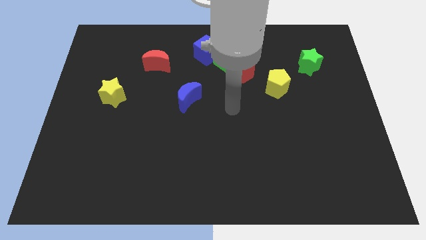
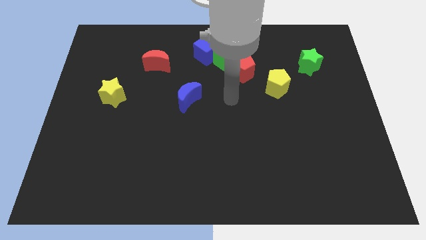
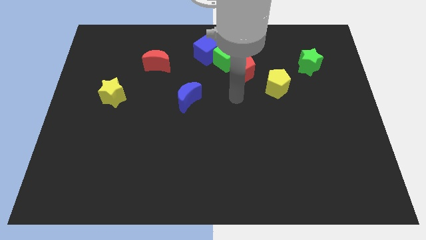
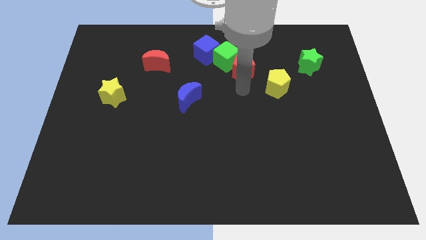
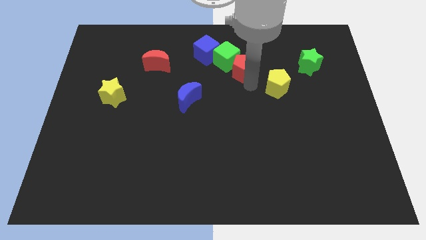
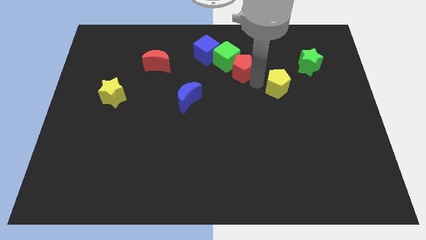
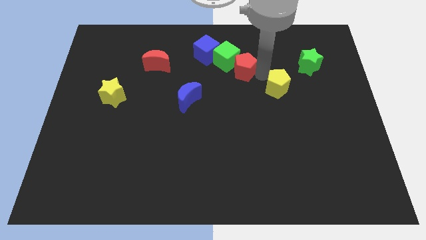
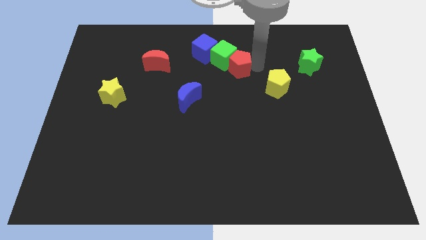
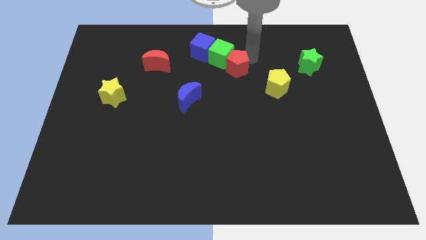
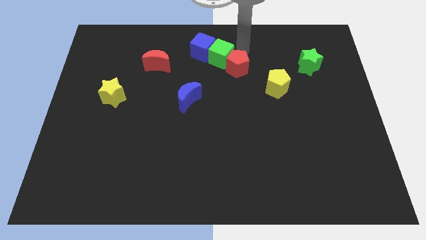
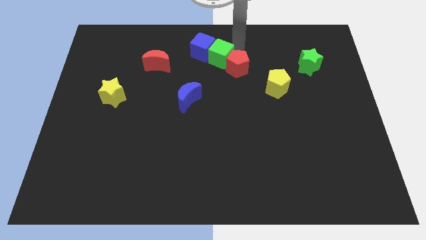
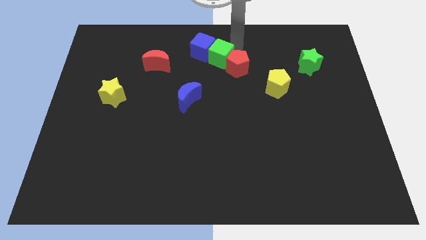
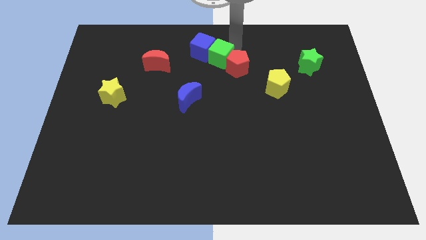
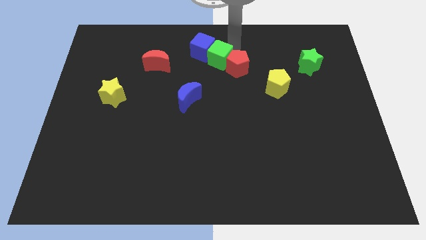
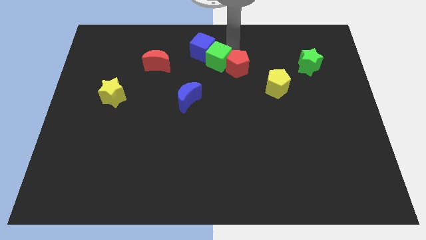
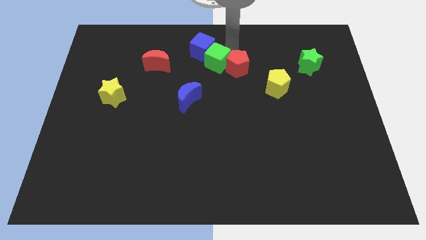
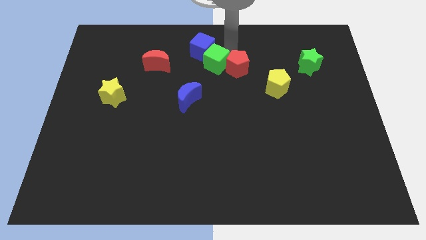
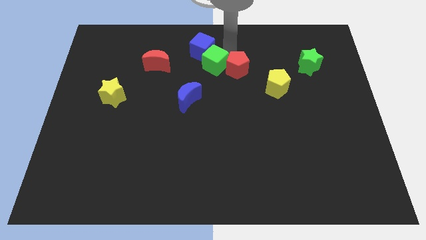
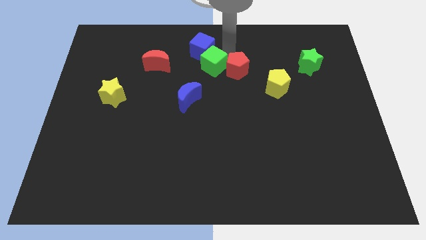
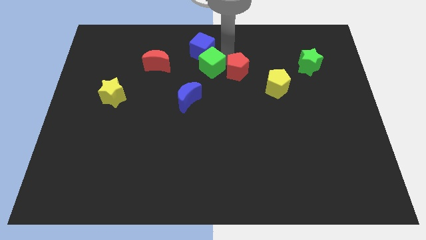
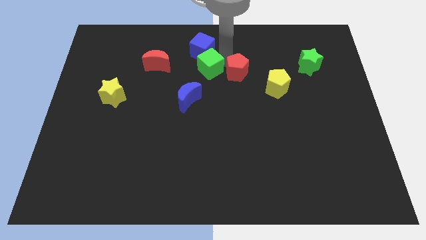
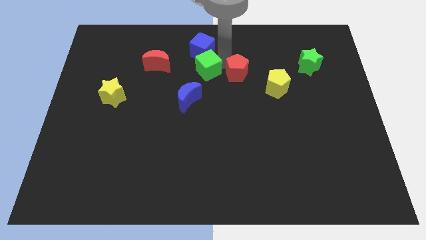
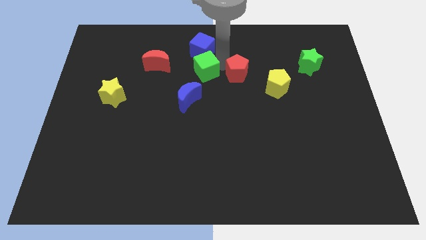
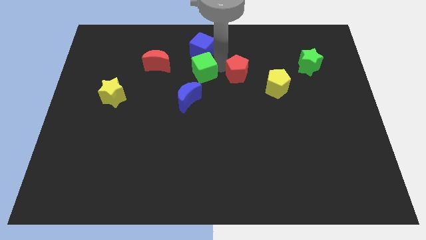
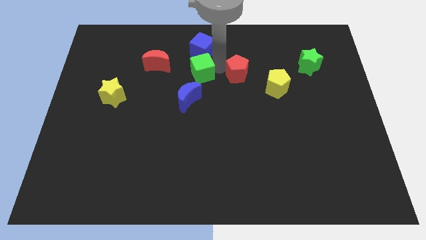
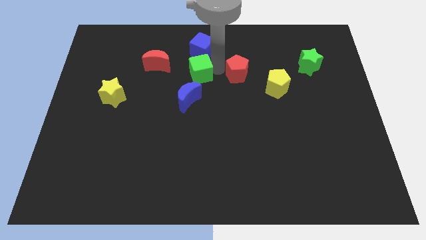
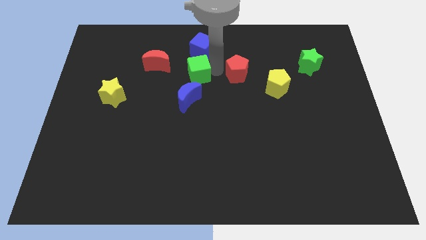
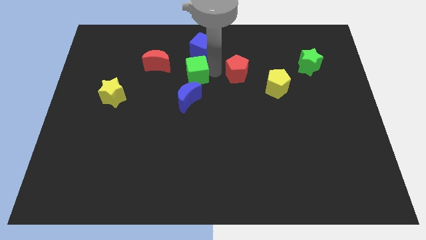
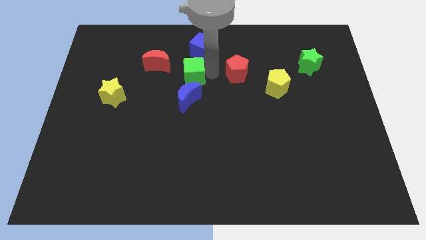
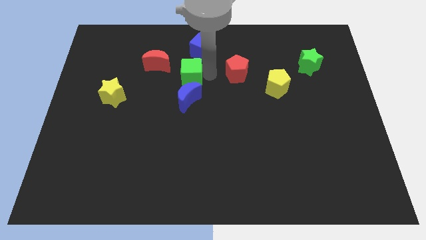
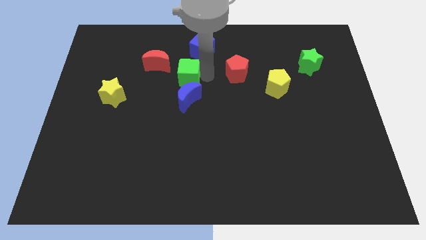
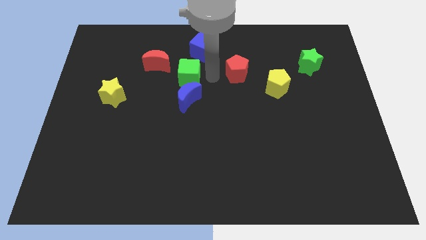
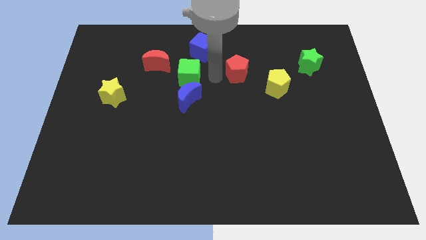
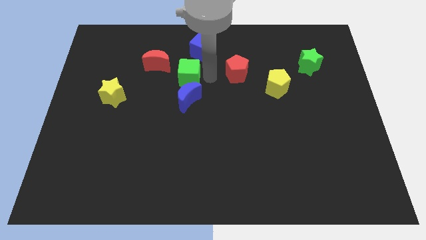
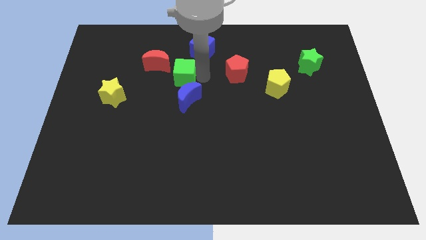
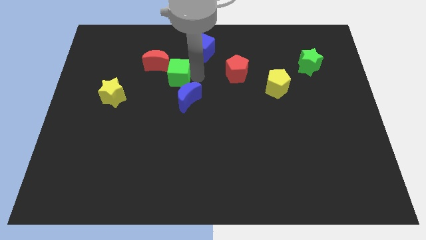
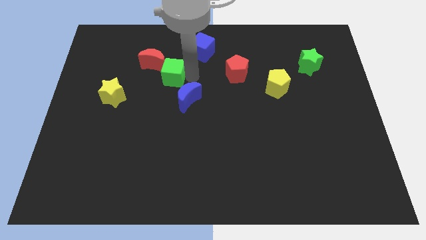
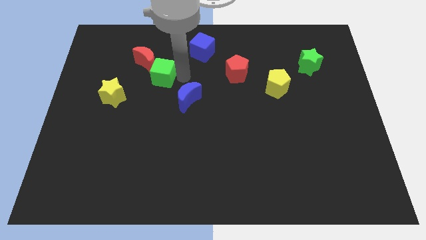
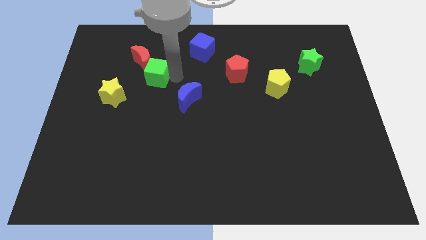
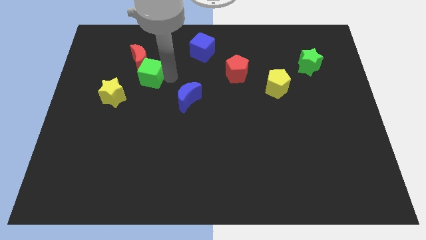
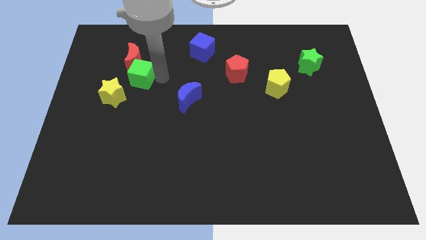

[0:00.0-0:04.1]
slide the green cube to the left

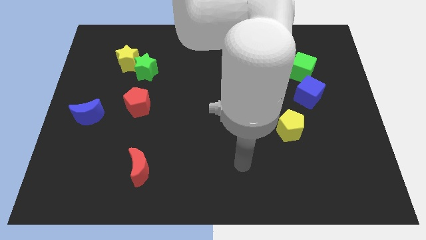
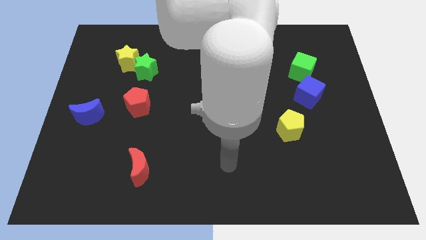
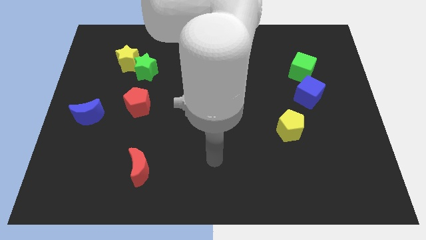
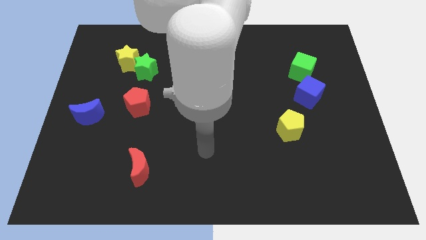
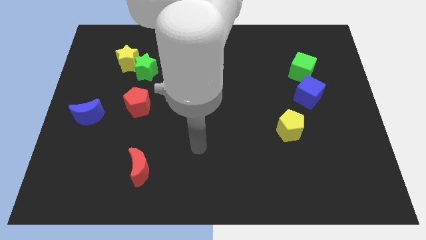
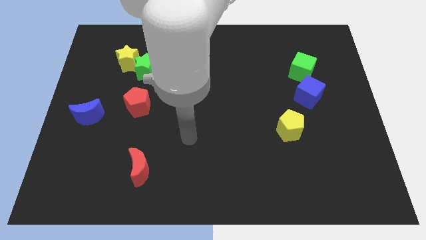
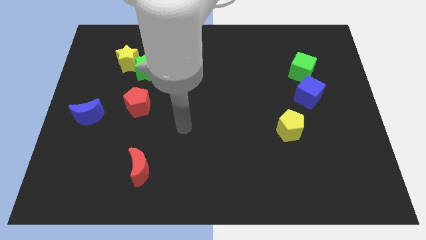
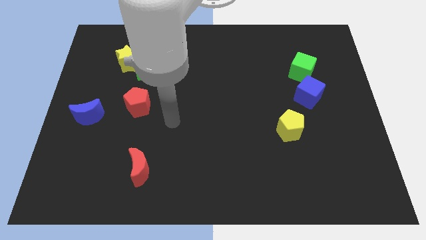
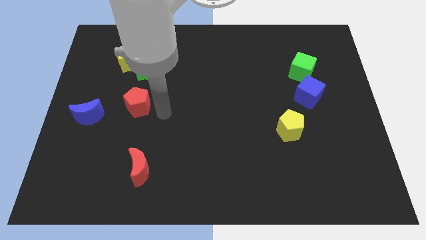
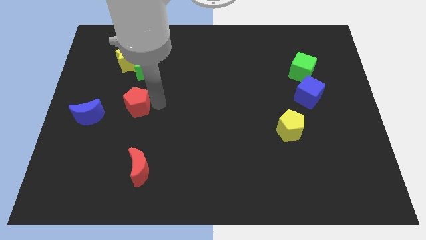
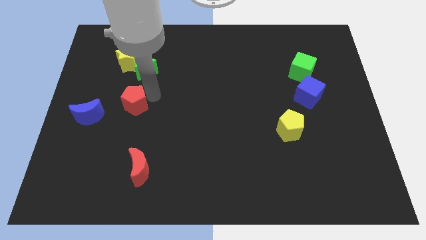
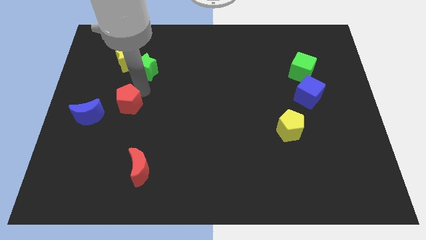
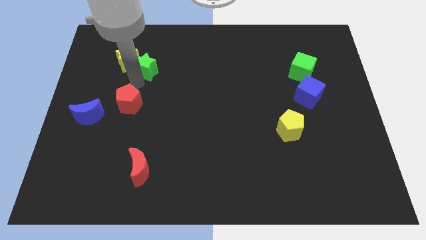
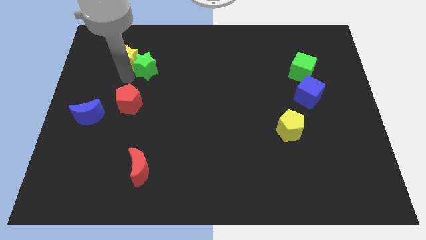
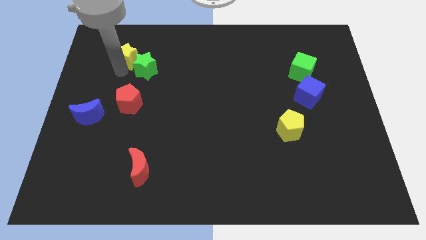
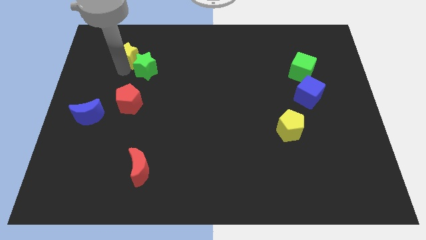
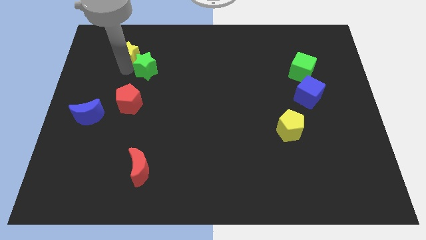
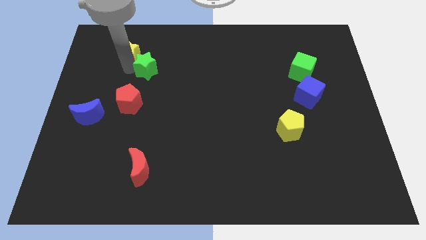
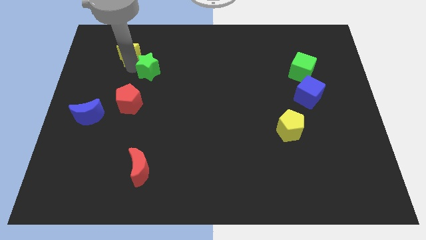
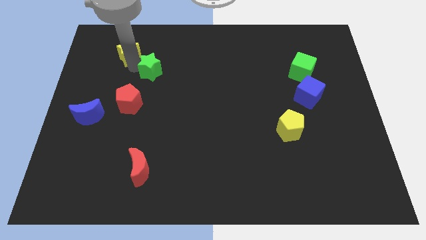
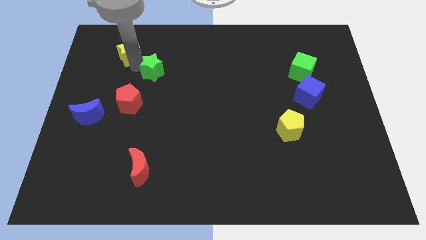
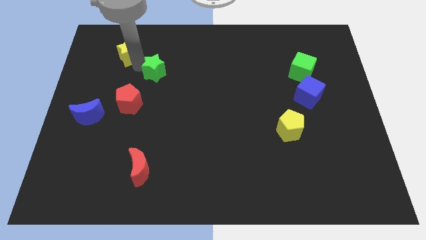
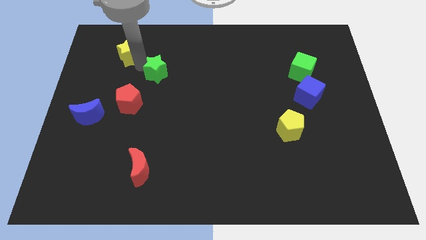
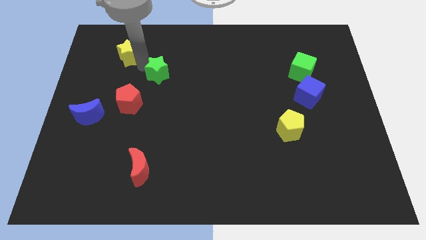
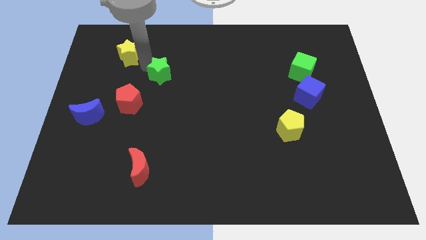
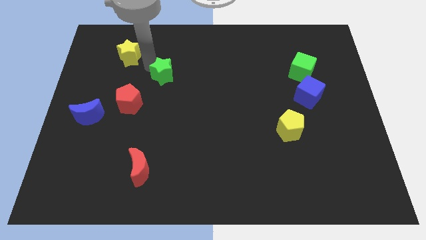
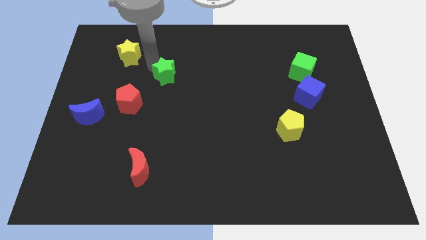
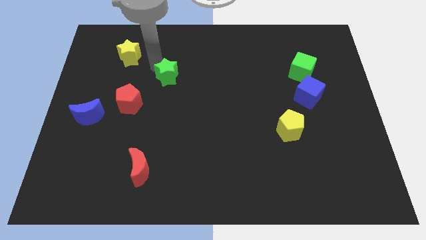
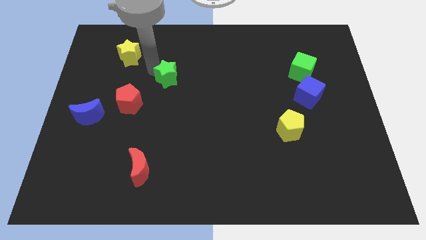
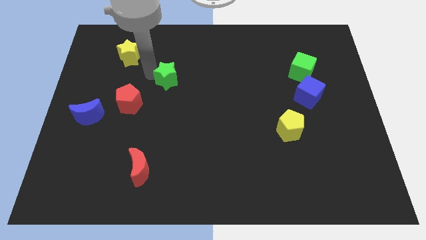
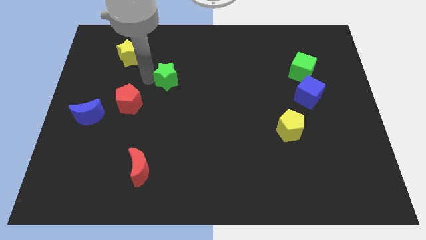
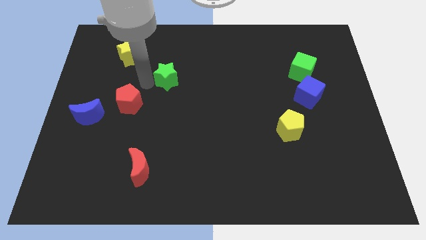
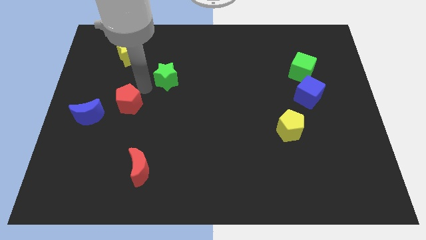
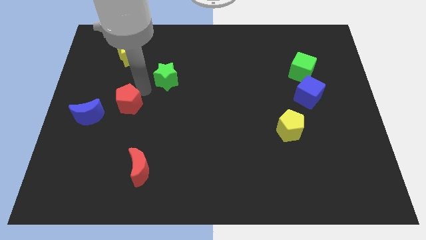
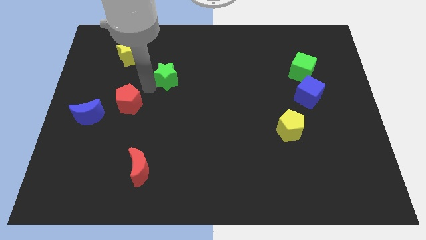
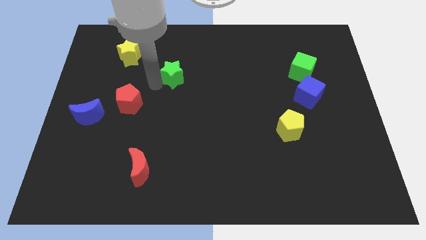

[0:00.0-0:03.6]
slightly slide the green star right

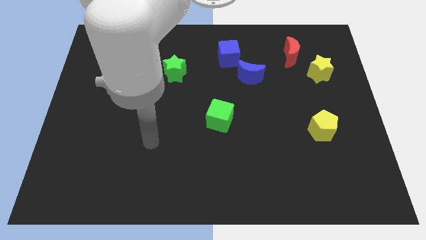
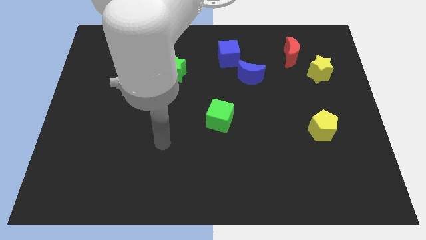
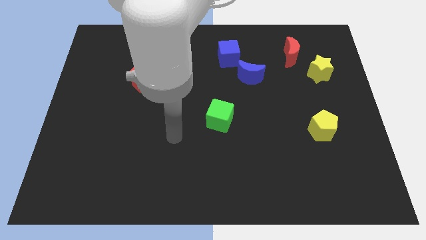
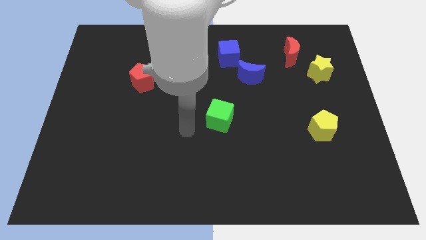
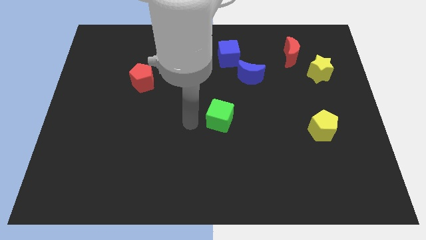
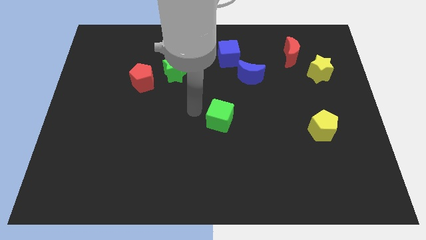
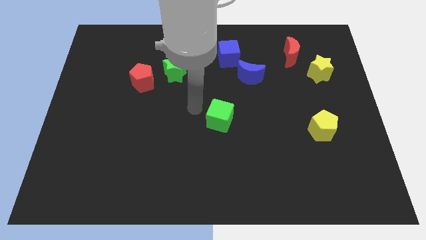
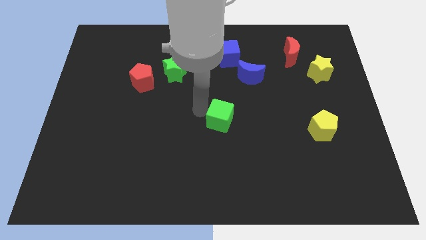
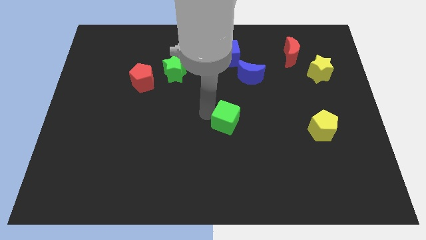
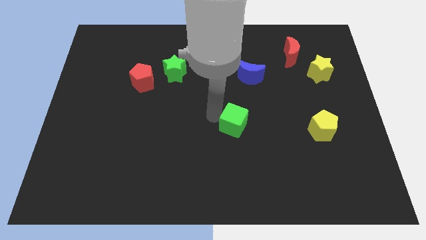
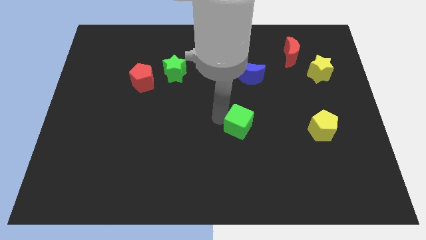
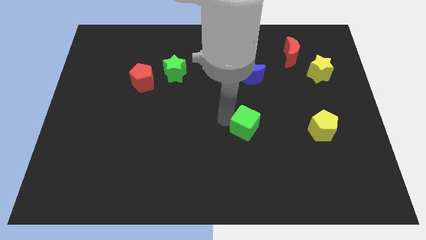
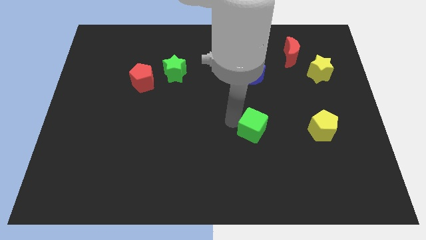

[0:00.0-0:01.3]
slightly move the green cube diagonally downwards and to the right
